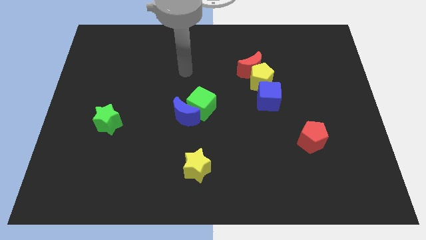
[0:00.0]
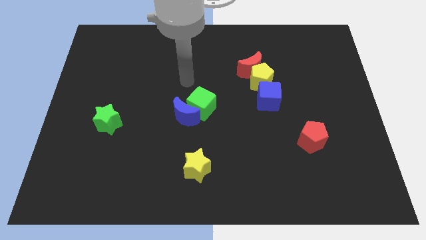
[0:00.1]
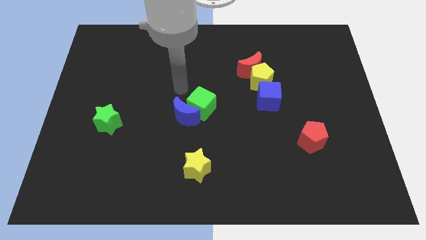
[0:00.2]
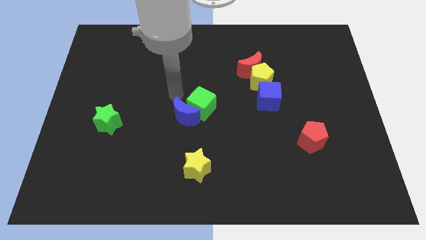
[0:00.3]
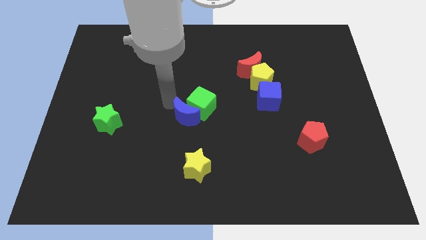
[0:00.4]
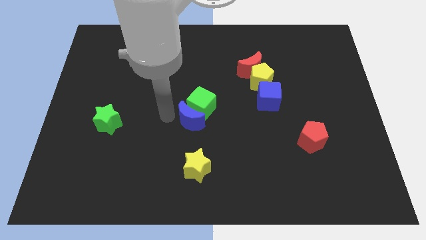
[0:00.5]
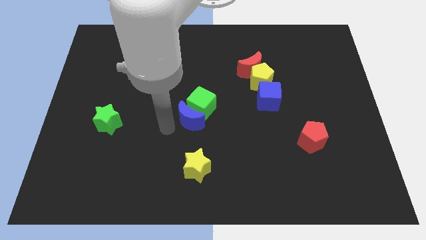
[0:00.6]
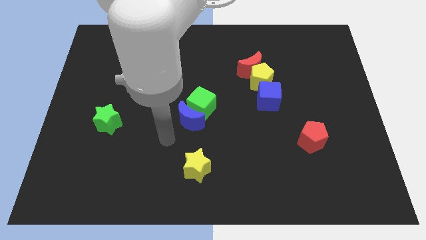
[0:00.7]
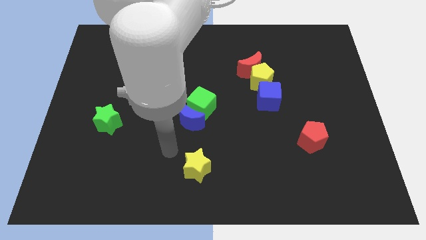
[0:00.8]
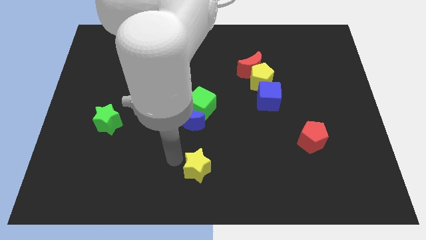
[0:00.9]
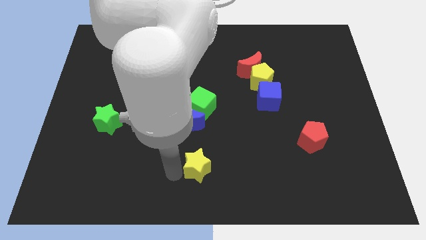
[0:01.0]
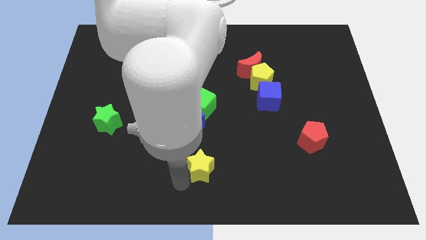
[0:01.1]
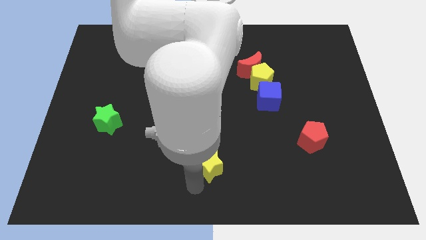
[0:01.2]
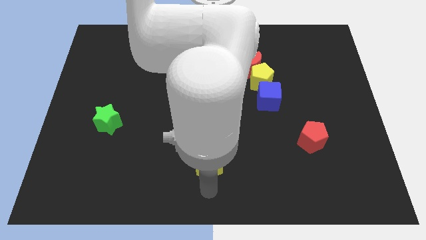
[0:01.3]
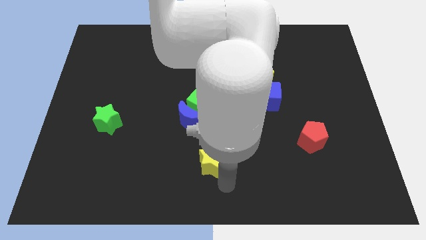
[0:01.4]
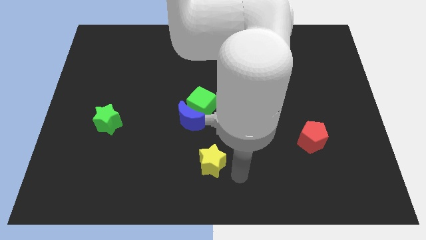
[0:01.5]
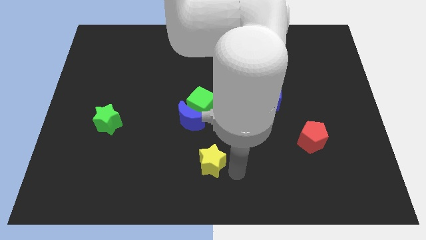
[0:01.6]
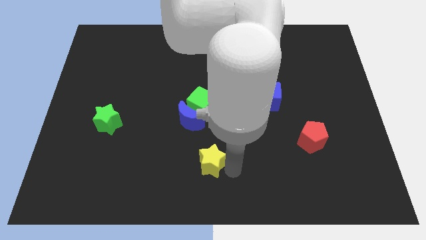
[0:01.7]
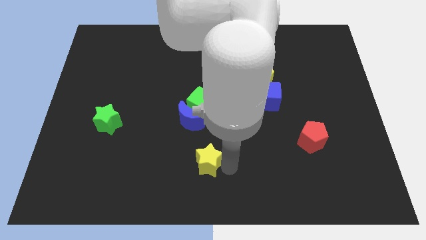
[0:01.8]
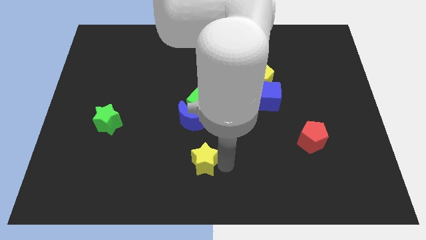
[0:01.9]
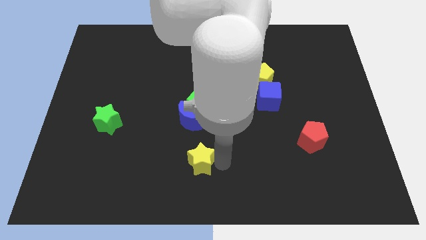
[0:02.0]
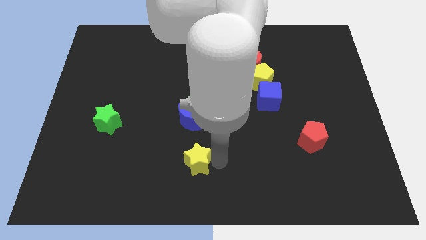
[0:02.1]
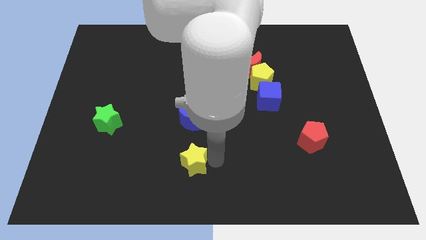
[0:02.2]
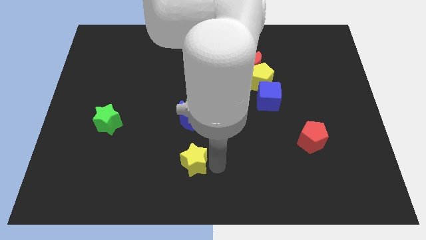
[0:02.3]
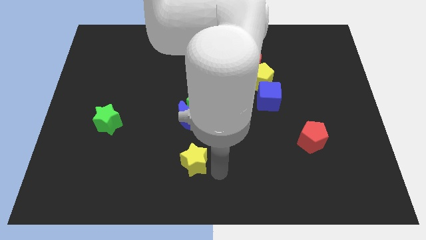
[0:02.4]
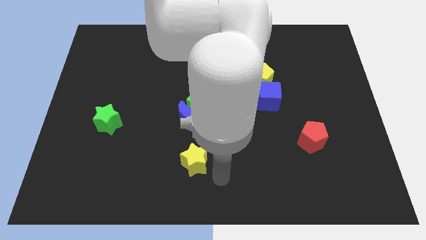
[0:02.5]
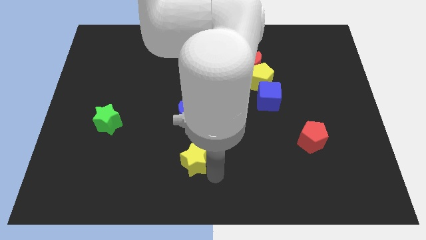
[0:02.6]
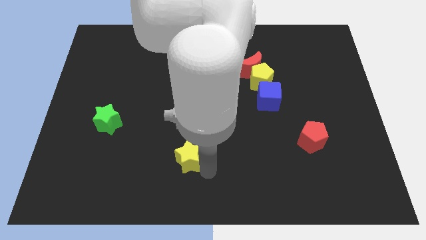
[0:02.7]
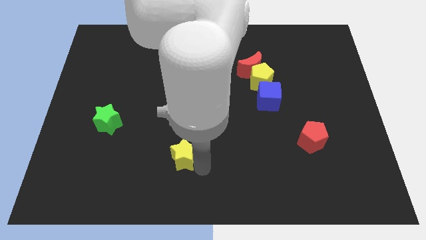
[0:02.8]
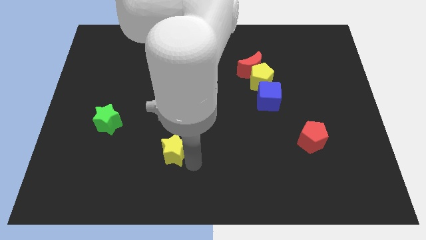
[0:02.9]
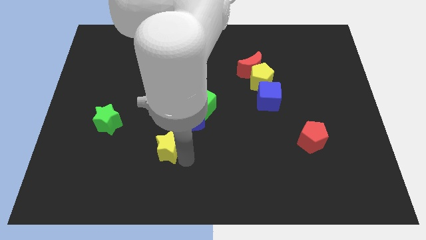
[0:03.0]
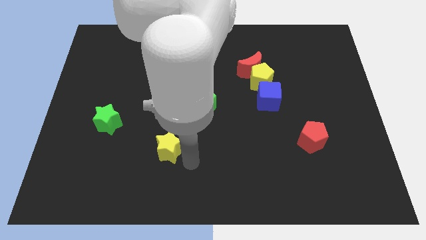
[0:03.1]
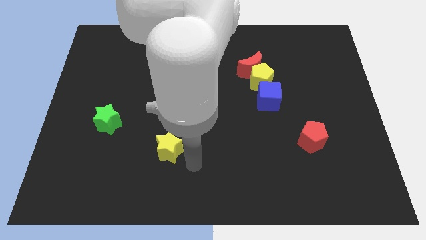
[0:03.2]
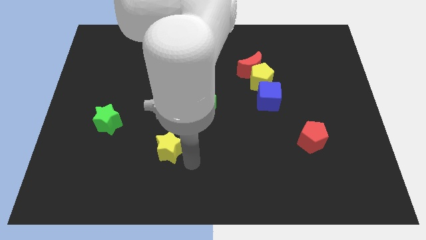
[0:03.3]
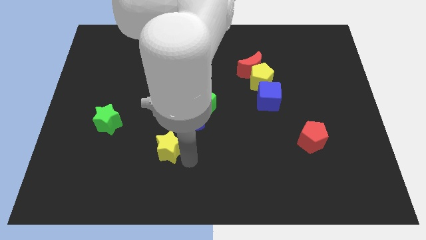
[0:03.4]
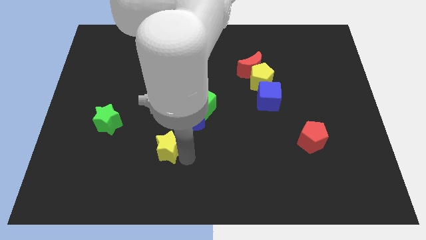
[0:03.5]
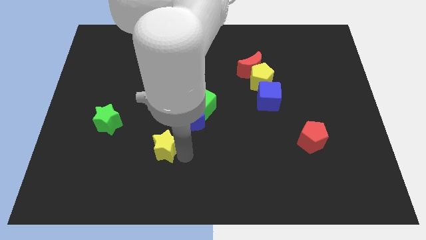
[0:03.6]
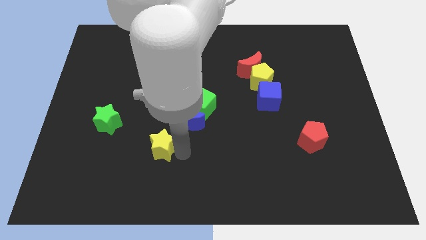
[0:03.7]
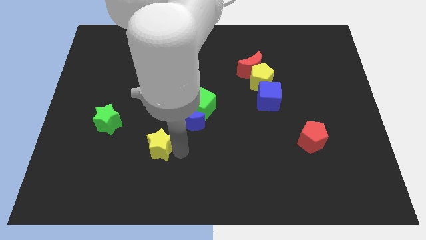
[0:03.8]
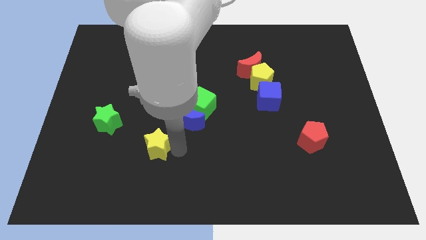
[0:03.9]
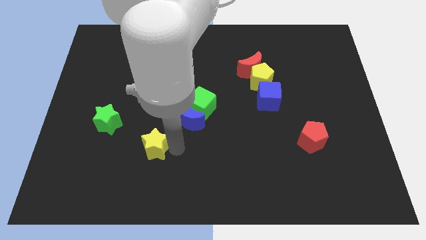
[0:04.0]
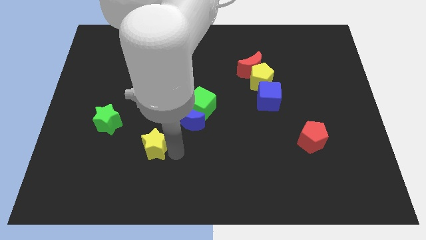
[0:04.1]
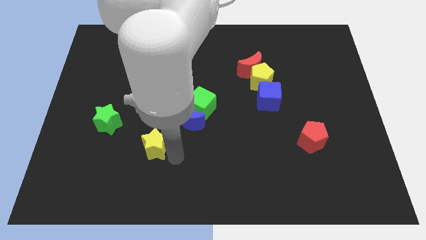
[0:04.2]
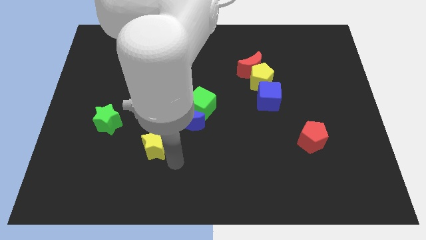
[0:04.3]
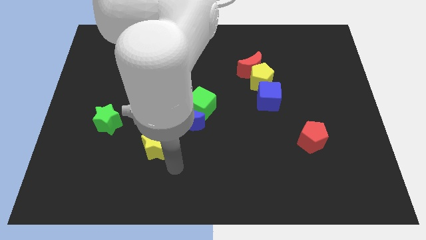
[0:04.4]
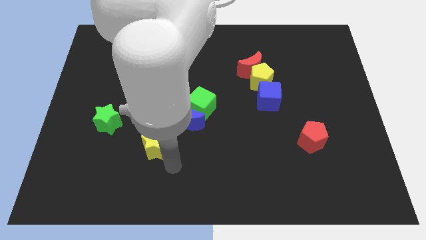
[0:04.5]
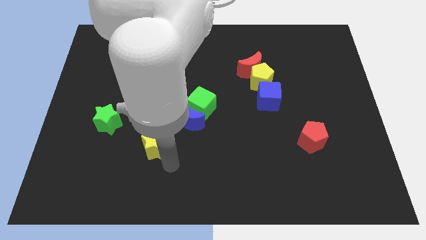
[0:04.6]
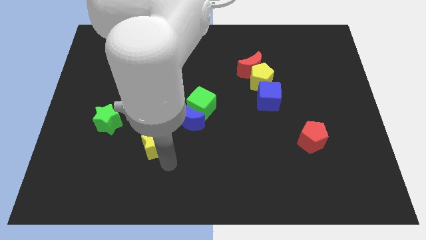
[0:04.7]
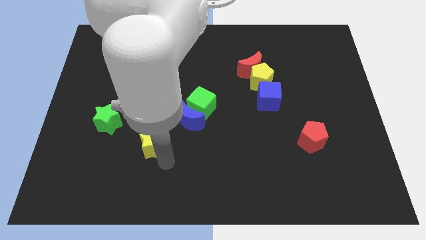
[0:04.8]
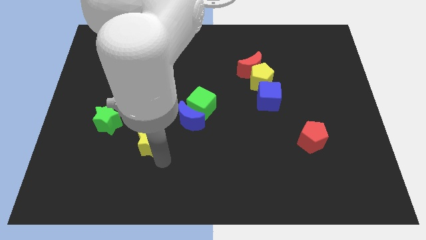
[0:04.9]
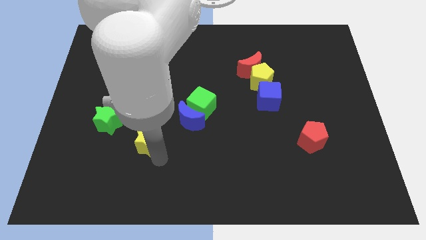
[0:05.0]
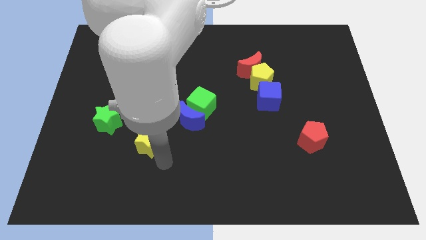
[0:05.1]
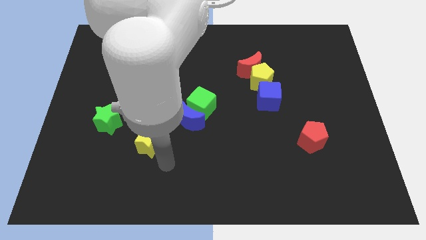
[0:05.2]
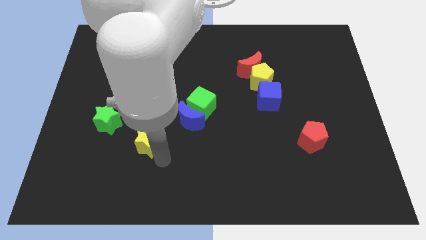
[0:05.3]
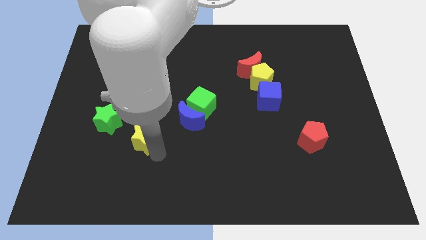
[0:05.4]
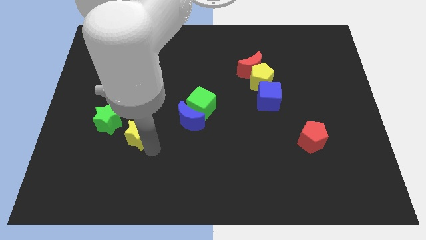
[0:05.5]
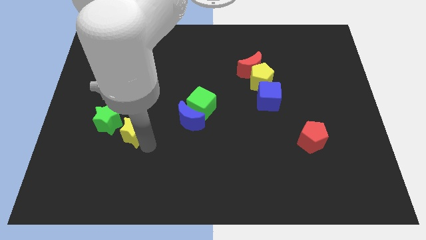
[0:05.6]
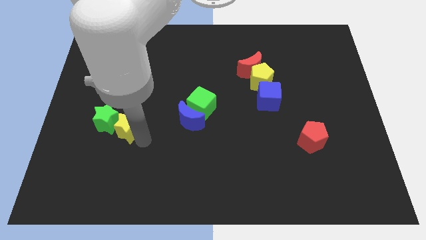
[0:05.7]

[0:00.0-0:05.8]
push the yellow star towards the green star
